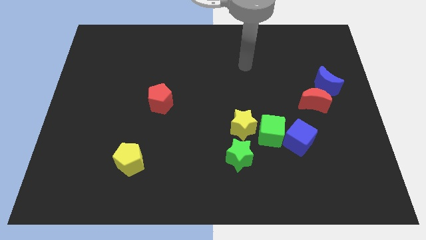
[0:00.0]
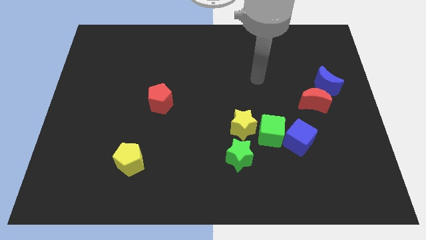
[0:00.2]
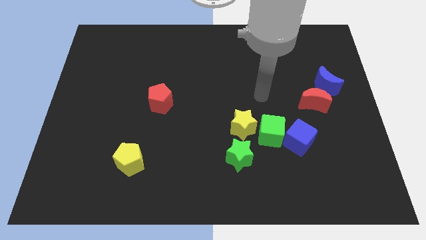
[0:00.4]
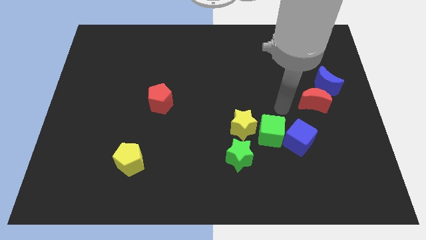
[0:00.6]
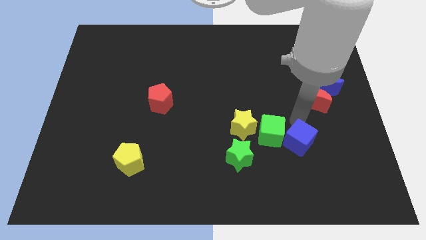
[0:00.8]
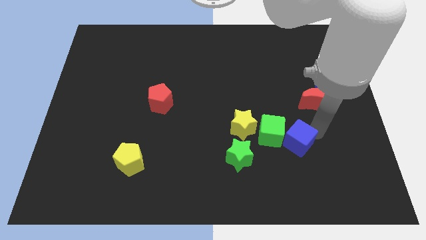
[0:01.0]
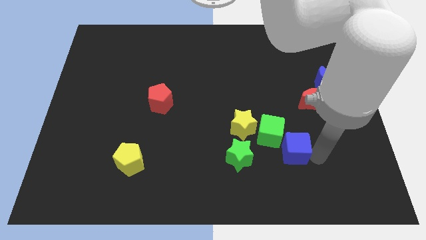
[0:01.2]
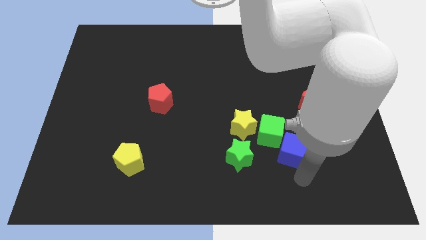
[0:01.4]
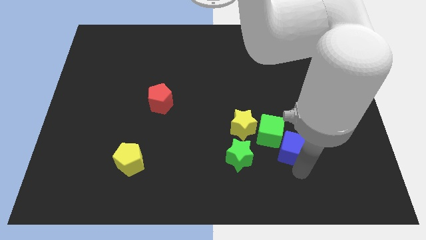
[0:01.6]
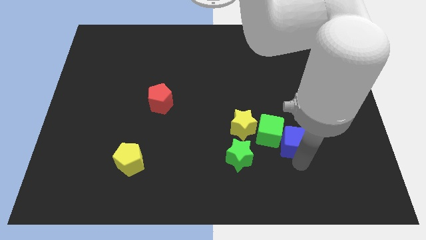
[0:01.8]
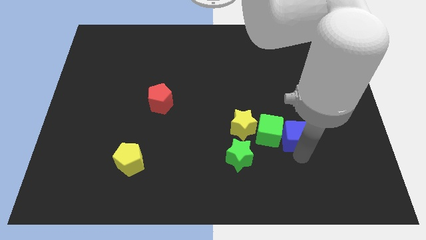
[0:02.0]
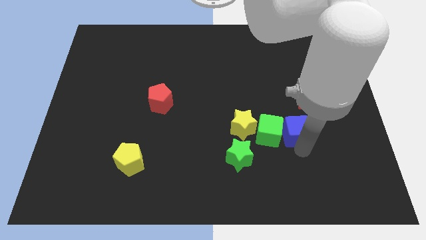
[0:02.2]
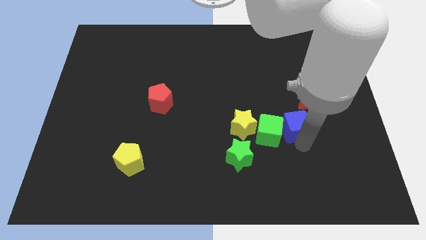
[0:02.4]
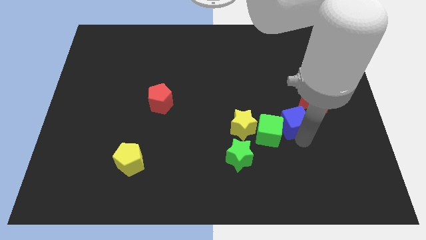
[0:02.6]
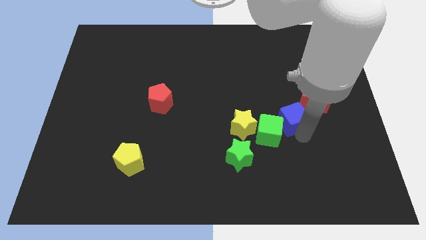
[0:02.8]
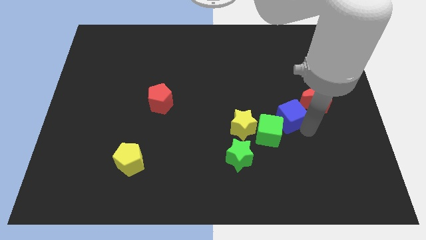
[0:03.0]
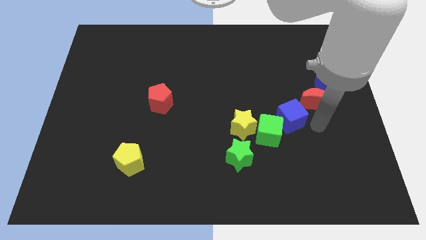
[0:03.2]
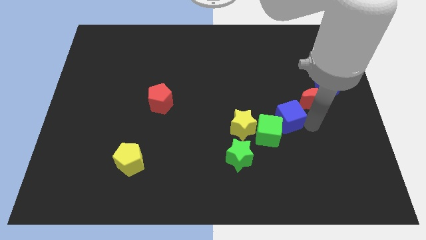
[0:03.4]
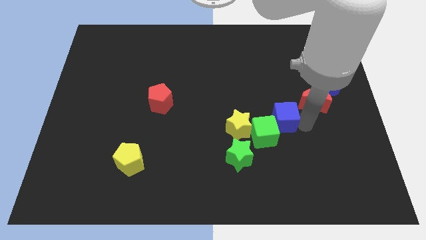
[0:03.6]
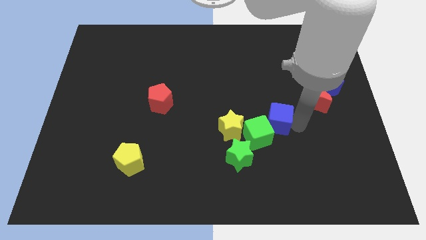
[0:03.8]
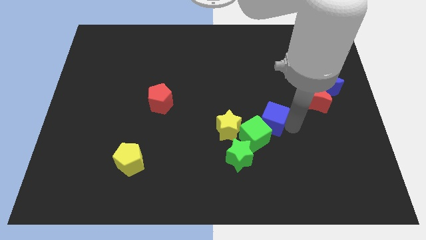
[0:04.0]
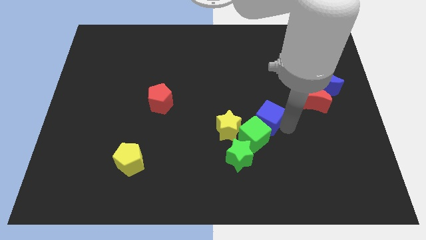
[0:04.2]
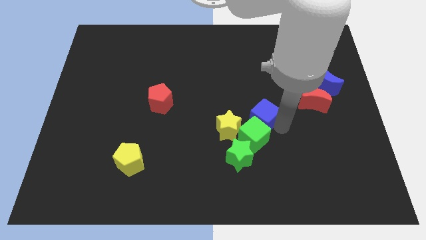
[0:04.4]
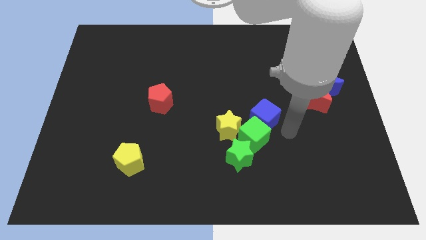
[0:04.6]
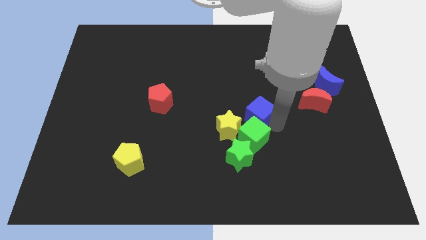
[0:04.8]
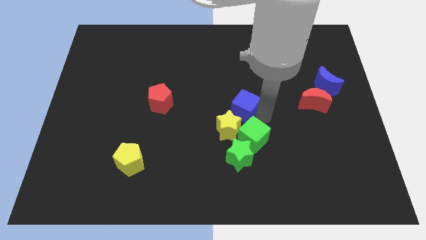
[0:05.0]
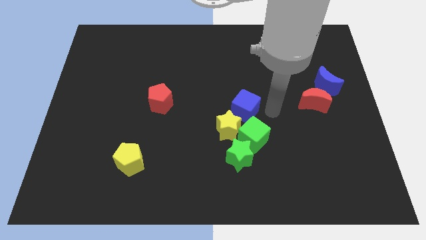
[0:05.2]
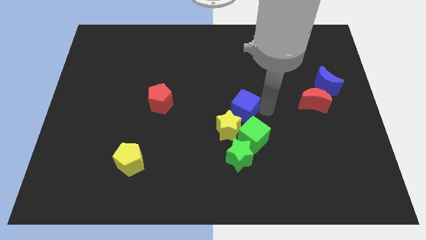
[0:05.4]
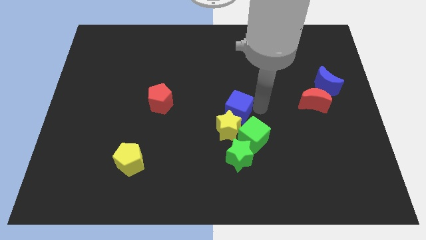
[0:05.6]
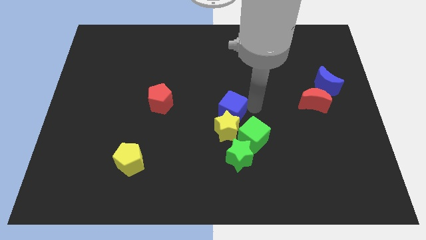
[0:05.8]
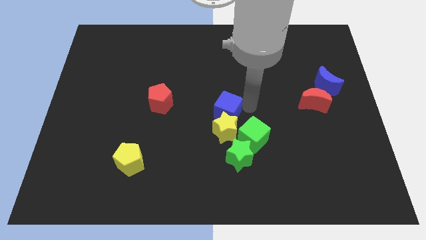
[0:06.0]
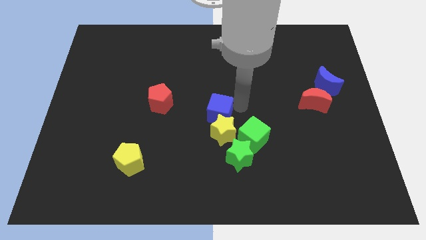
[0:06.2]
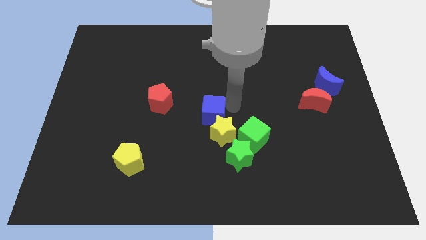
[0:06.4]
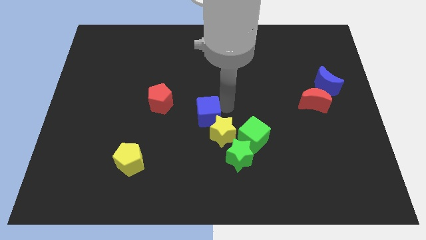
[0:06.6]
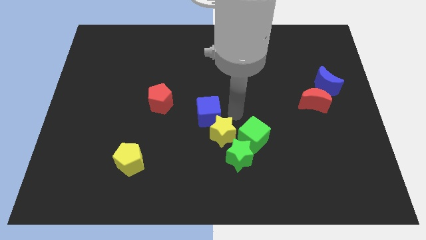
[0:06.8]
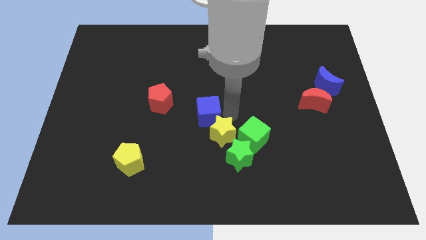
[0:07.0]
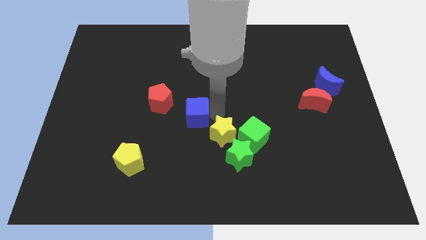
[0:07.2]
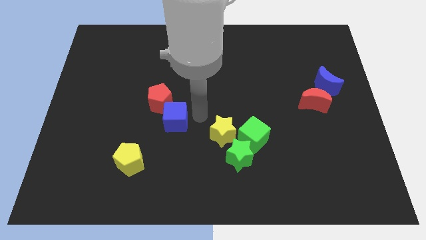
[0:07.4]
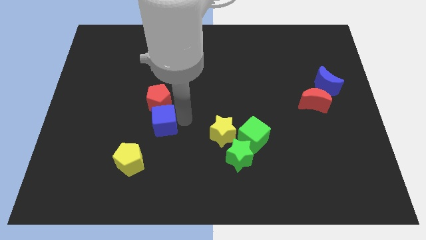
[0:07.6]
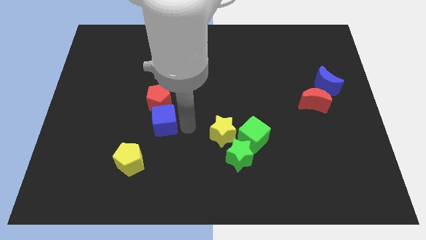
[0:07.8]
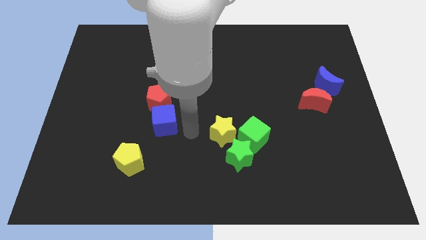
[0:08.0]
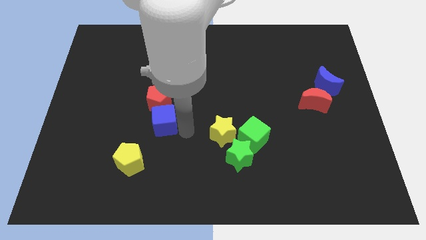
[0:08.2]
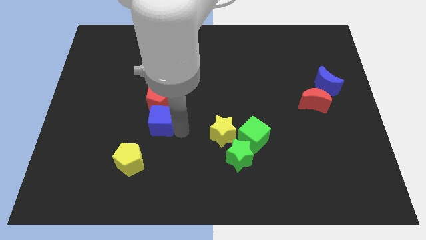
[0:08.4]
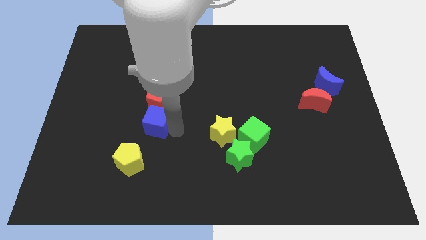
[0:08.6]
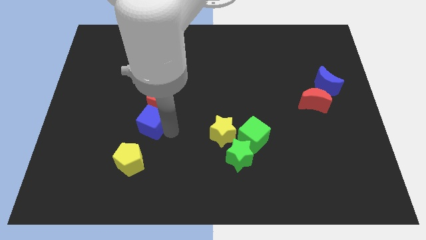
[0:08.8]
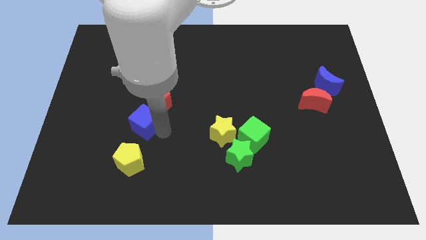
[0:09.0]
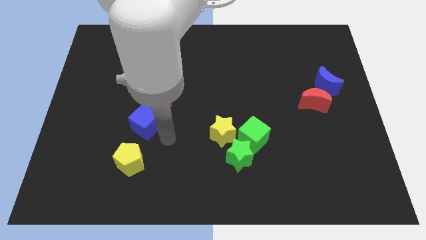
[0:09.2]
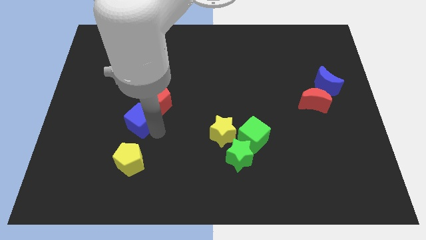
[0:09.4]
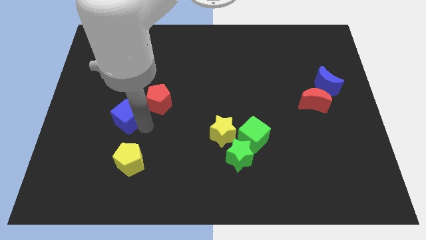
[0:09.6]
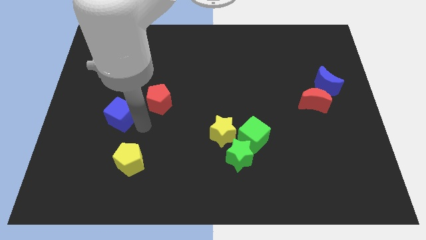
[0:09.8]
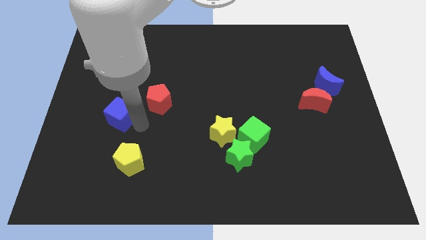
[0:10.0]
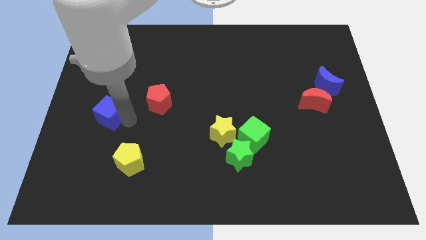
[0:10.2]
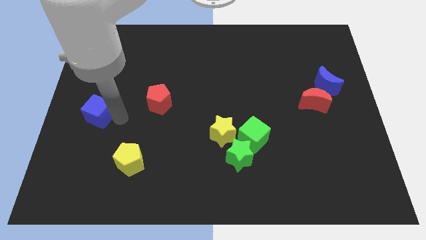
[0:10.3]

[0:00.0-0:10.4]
slide the blue cube to the left side
